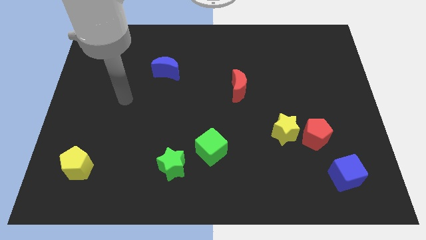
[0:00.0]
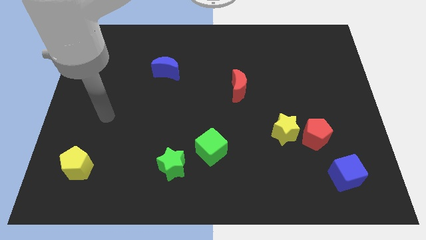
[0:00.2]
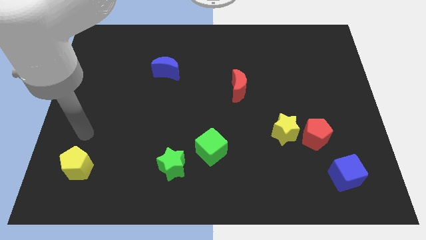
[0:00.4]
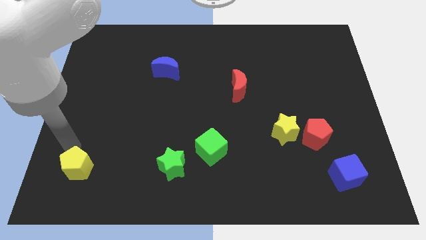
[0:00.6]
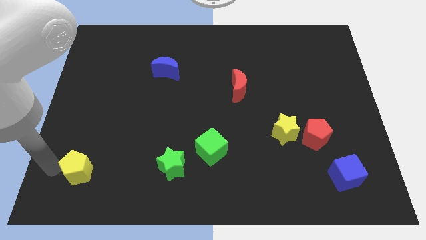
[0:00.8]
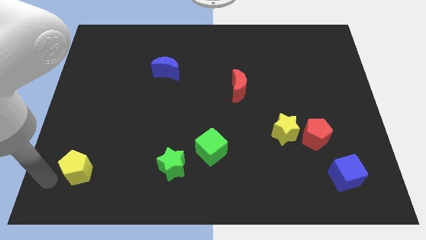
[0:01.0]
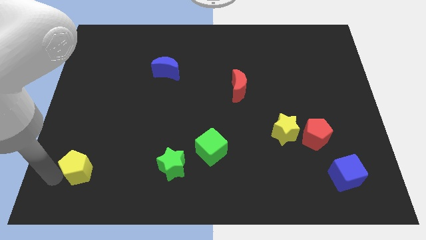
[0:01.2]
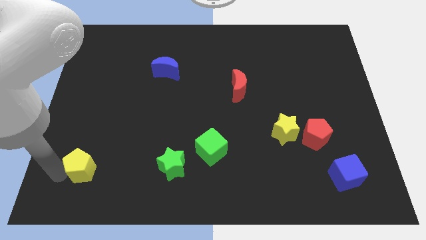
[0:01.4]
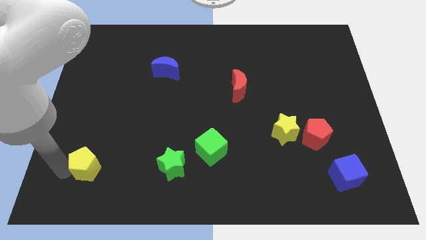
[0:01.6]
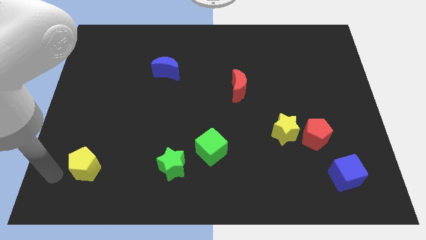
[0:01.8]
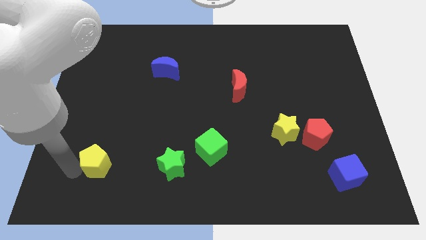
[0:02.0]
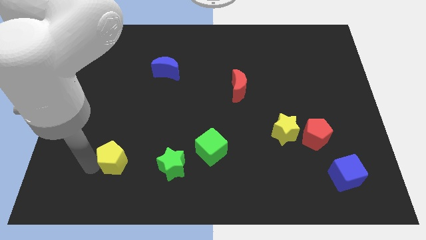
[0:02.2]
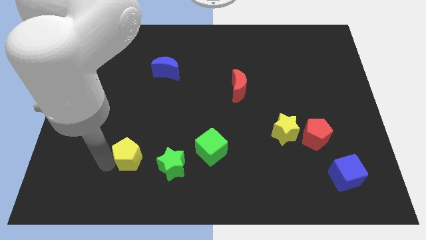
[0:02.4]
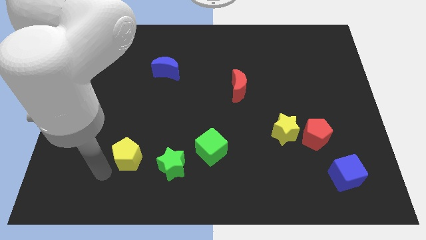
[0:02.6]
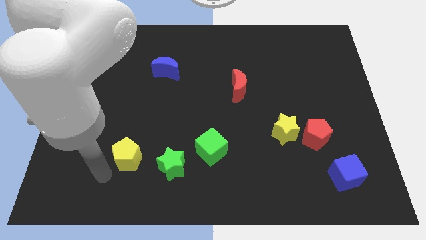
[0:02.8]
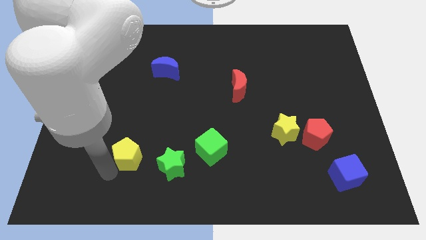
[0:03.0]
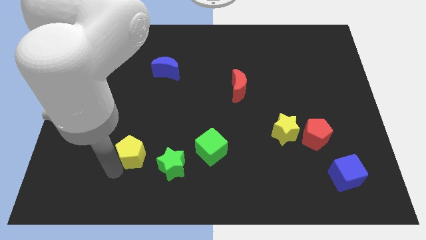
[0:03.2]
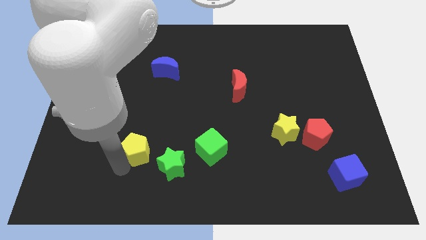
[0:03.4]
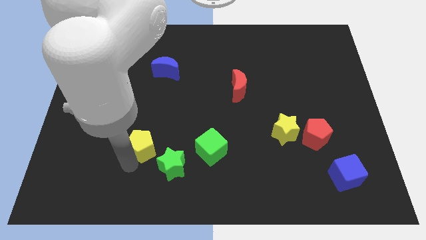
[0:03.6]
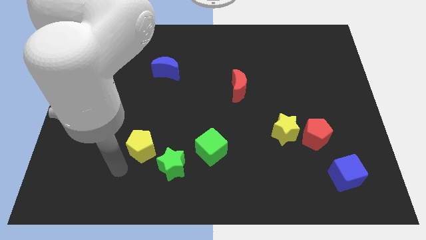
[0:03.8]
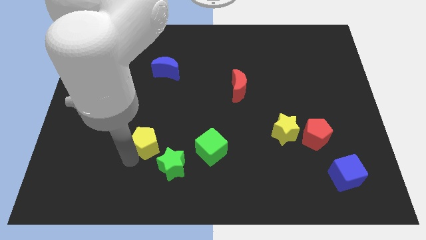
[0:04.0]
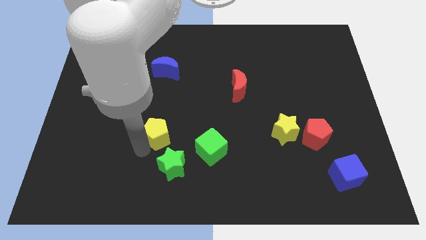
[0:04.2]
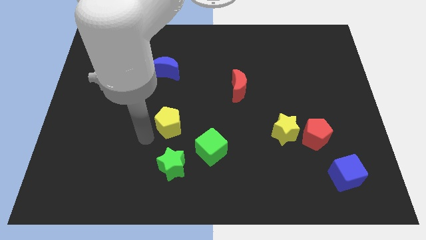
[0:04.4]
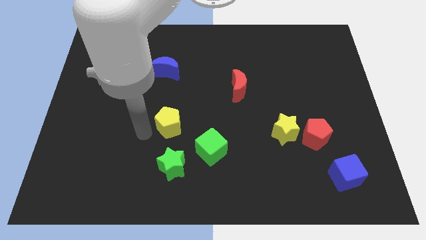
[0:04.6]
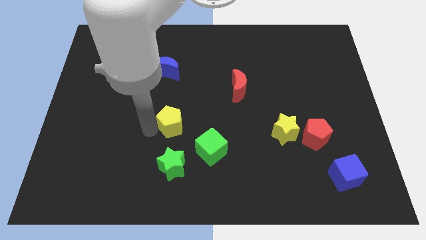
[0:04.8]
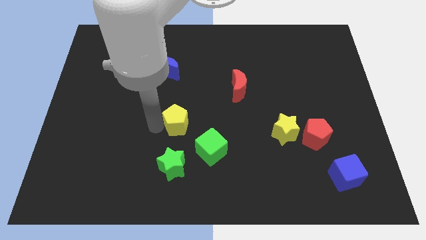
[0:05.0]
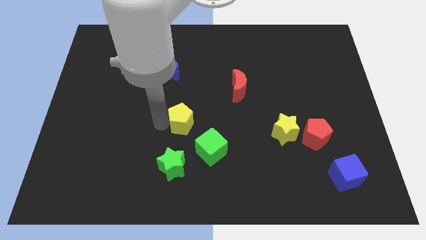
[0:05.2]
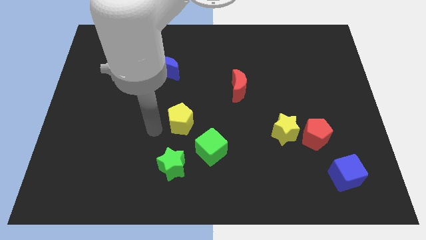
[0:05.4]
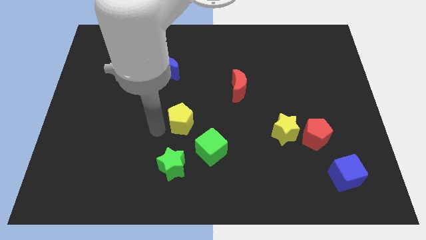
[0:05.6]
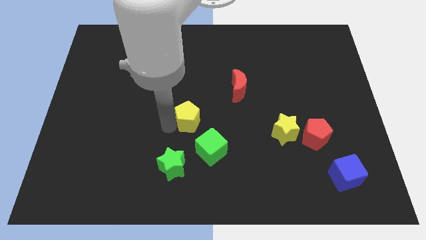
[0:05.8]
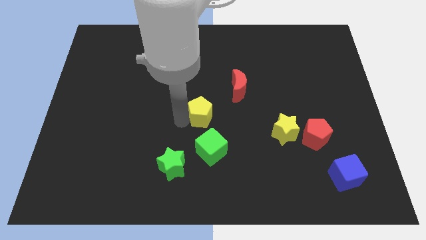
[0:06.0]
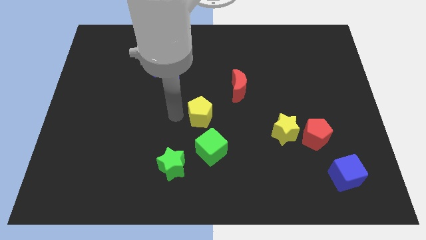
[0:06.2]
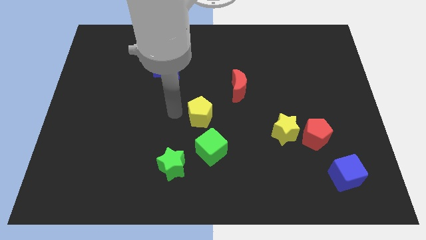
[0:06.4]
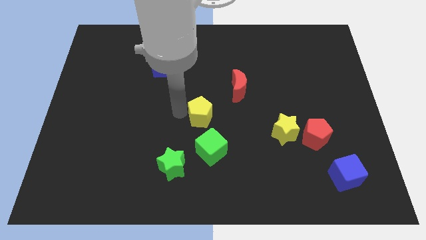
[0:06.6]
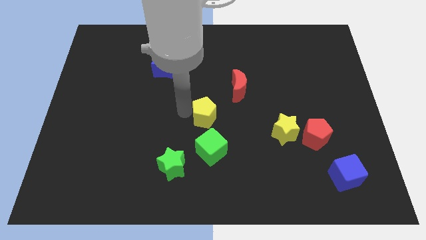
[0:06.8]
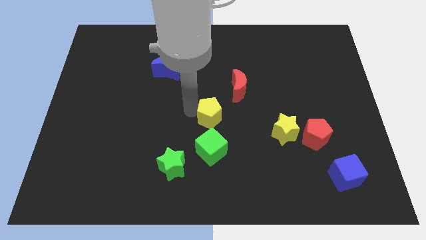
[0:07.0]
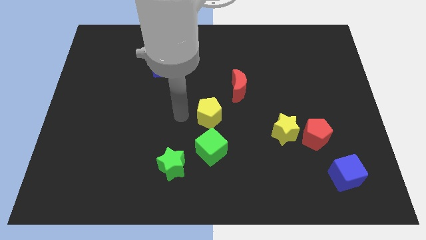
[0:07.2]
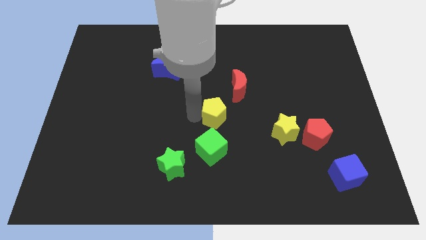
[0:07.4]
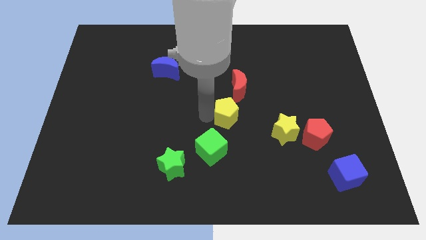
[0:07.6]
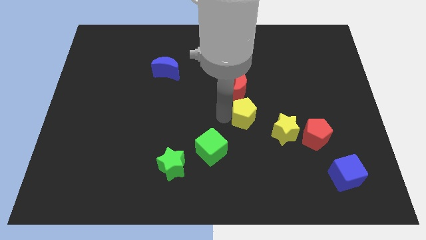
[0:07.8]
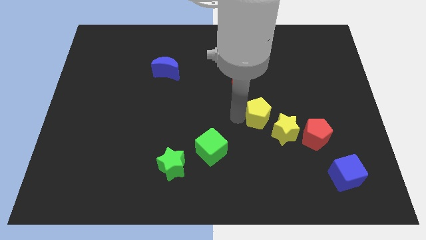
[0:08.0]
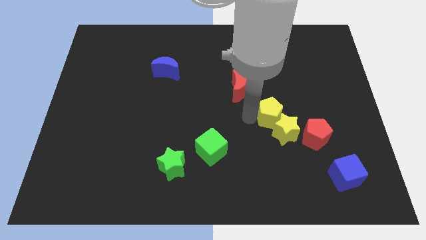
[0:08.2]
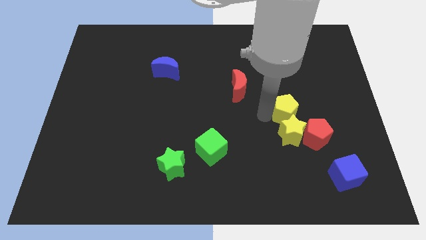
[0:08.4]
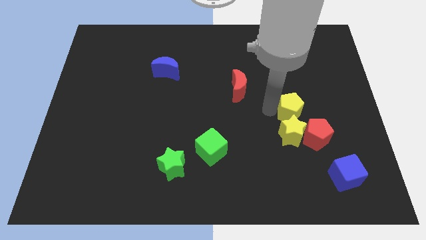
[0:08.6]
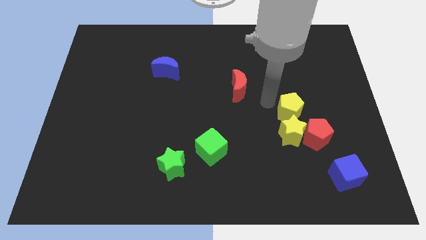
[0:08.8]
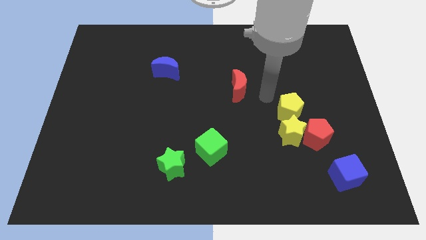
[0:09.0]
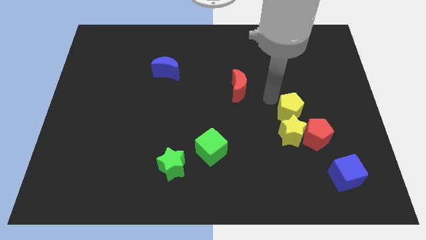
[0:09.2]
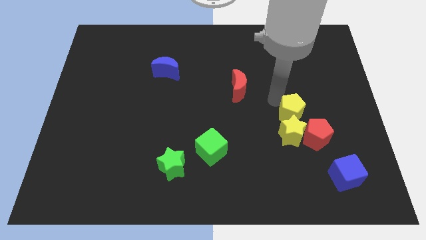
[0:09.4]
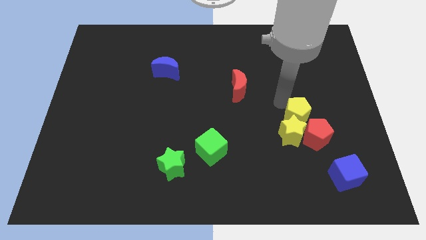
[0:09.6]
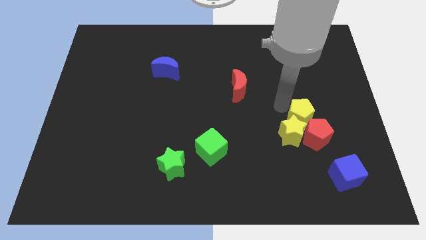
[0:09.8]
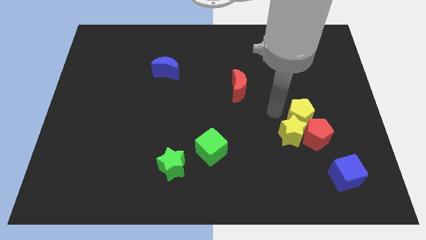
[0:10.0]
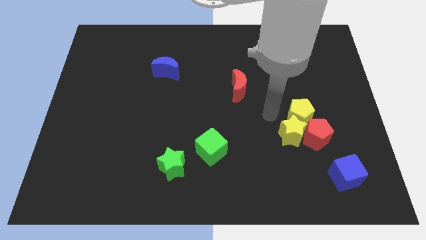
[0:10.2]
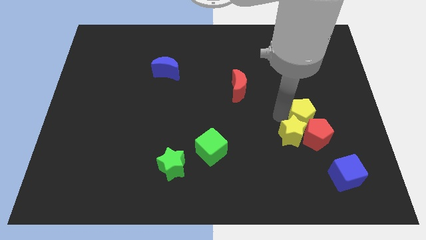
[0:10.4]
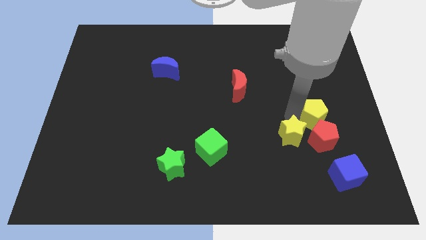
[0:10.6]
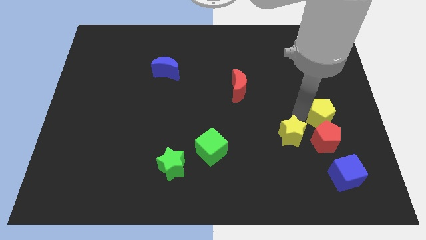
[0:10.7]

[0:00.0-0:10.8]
push the yellow pentagon to the top of the blue cube

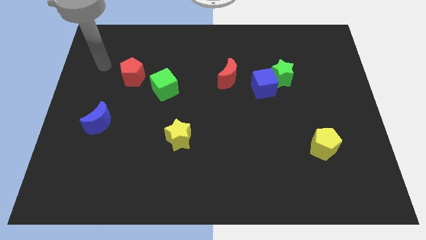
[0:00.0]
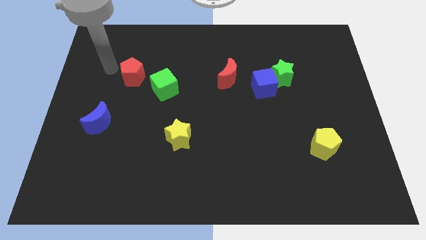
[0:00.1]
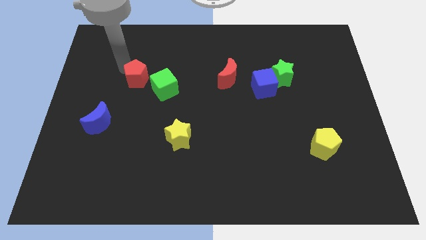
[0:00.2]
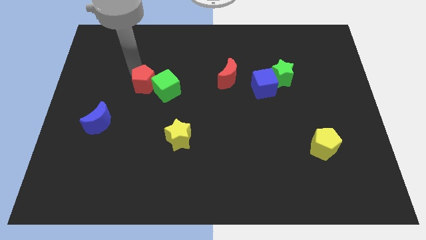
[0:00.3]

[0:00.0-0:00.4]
put the green cube to the top of the yellow star

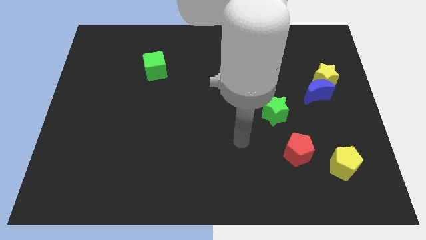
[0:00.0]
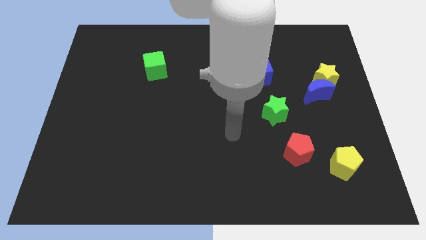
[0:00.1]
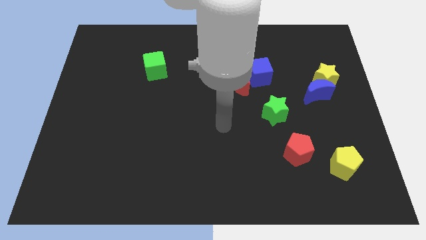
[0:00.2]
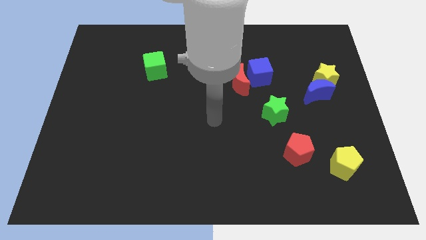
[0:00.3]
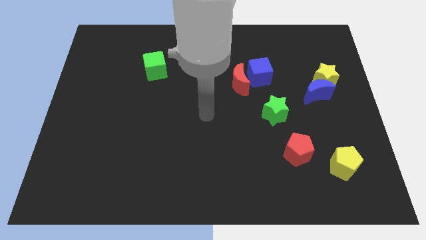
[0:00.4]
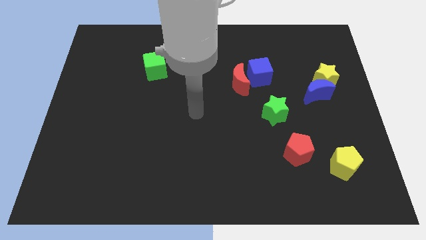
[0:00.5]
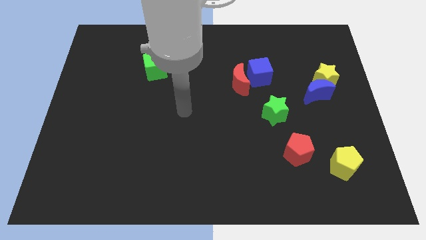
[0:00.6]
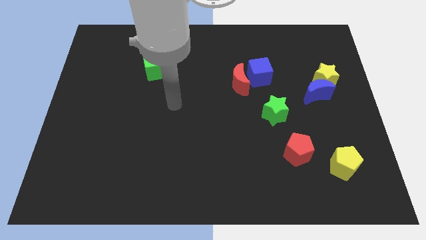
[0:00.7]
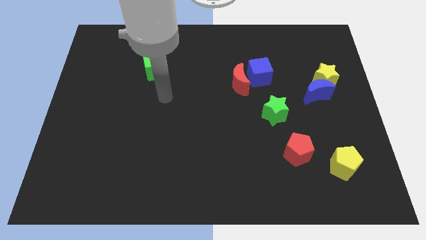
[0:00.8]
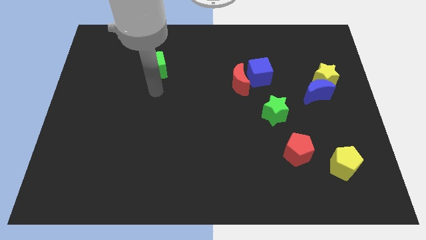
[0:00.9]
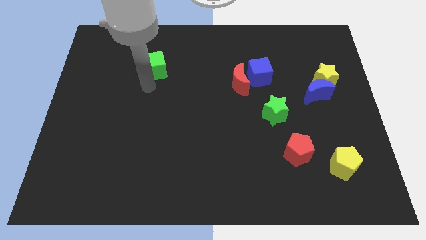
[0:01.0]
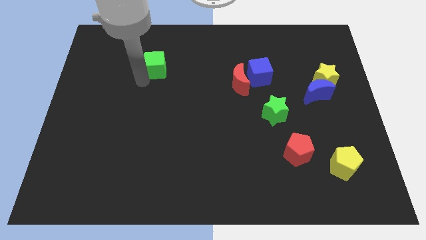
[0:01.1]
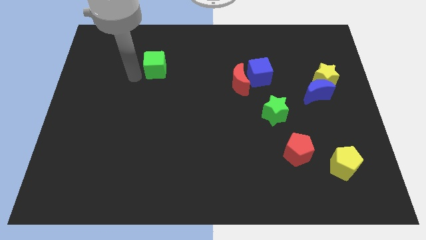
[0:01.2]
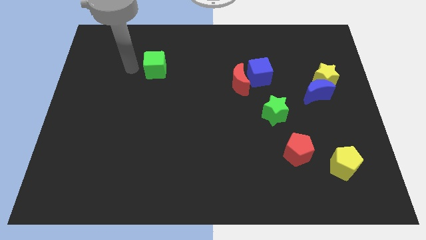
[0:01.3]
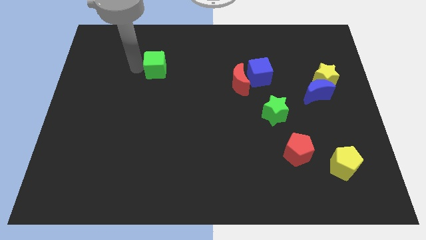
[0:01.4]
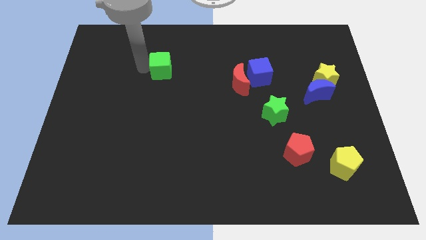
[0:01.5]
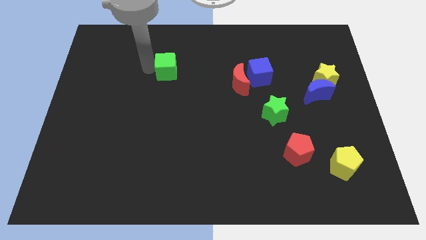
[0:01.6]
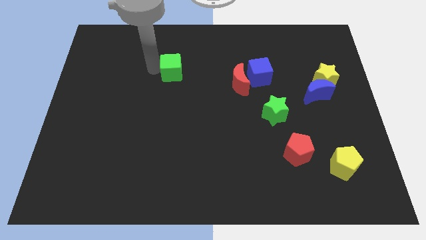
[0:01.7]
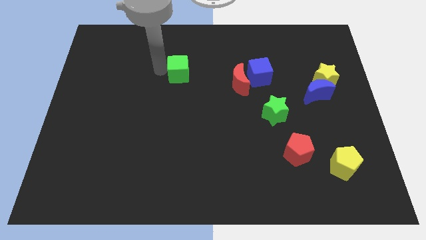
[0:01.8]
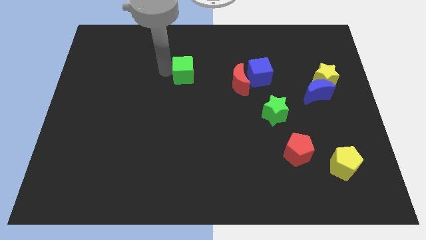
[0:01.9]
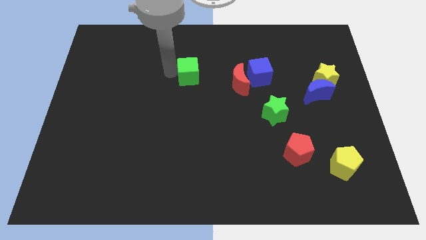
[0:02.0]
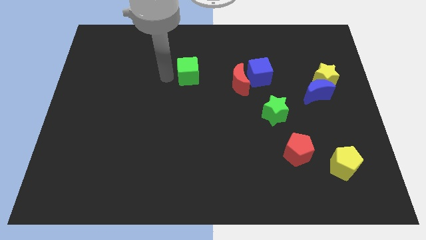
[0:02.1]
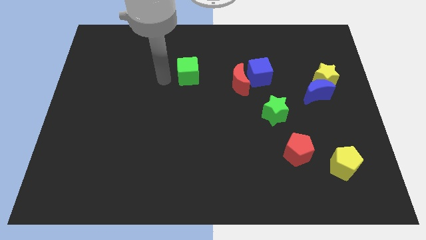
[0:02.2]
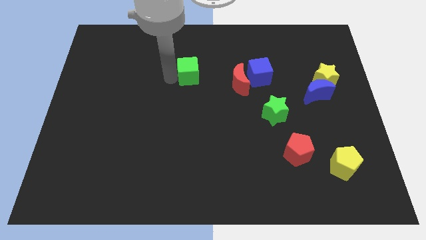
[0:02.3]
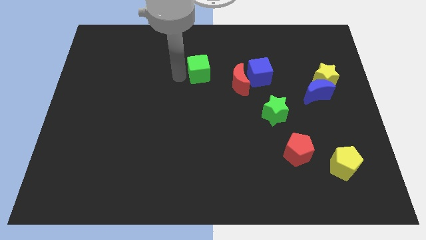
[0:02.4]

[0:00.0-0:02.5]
move the green cube to the top left side of the red moon
